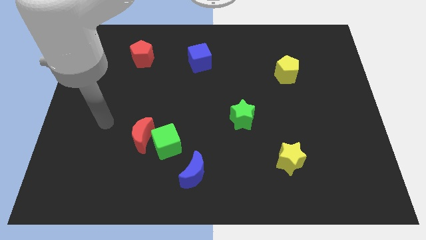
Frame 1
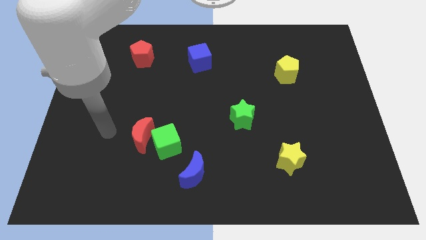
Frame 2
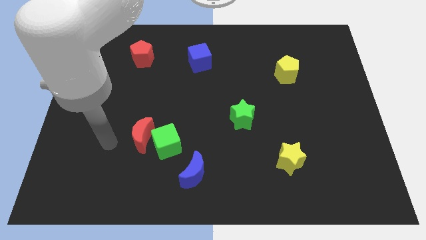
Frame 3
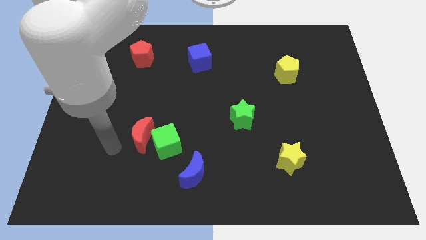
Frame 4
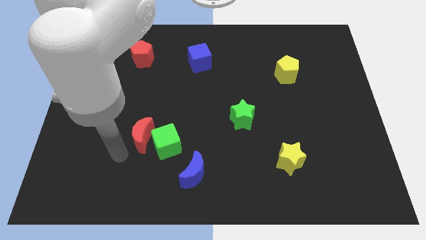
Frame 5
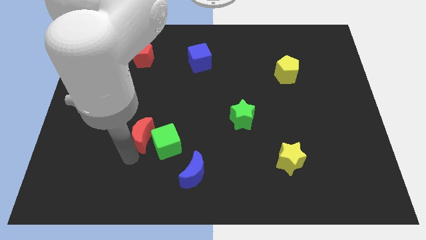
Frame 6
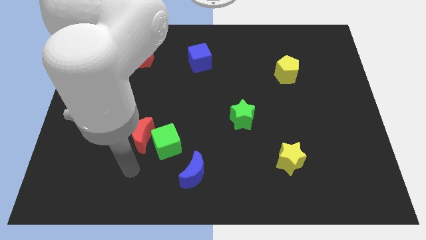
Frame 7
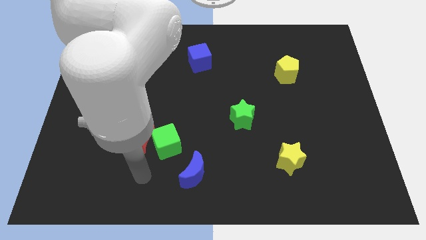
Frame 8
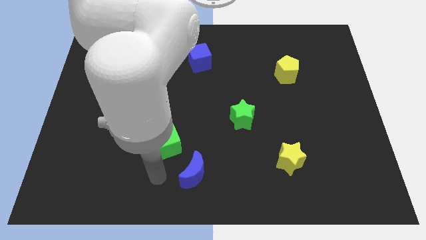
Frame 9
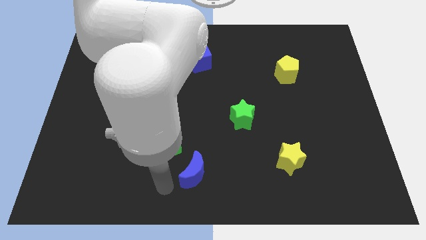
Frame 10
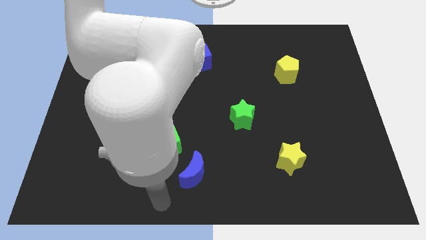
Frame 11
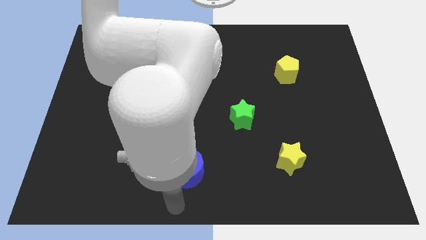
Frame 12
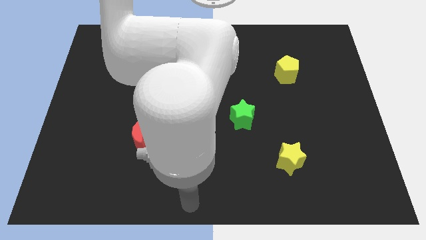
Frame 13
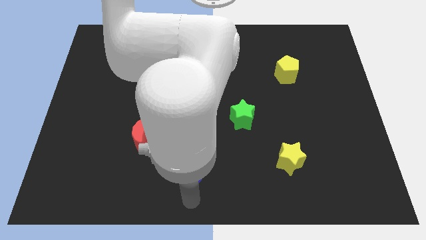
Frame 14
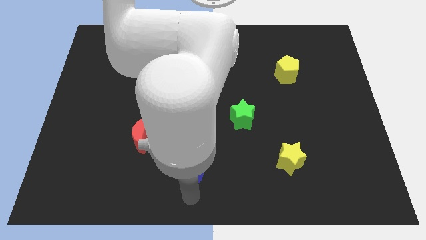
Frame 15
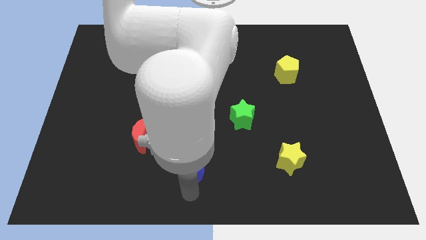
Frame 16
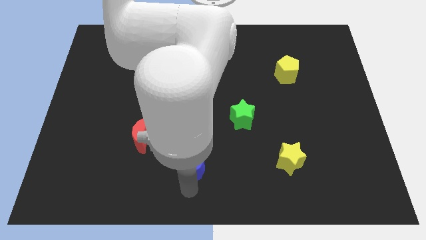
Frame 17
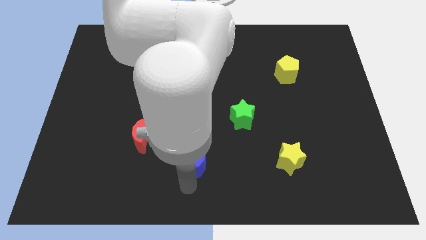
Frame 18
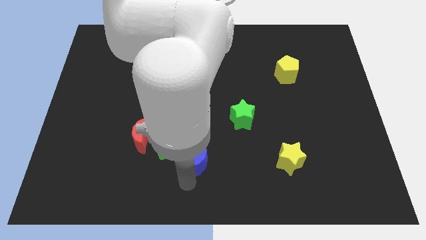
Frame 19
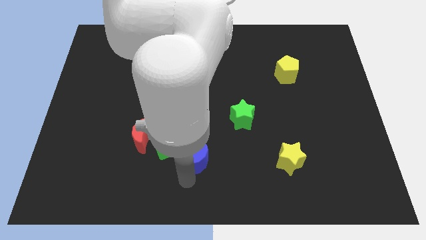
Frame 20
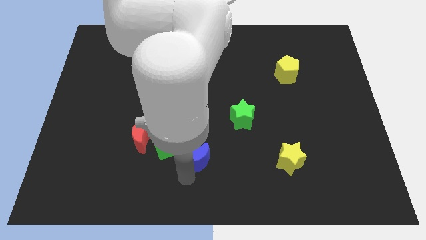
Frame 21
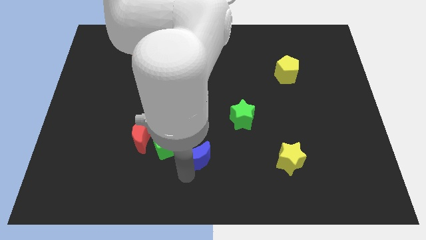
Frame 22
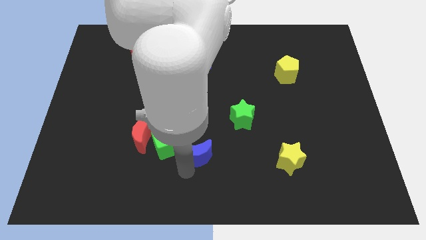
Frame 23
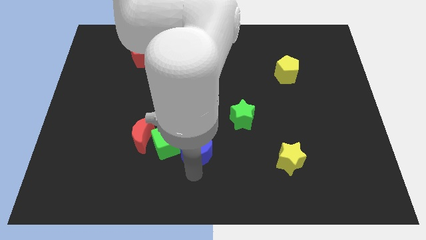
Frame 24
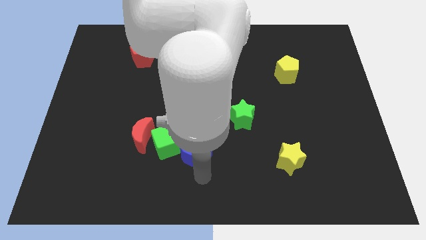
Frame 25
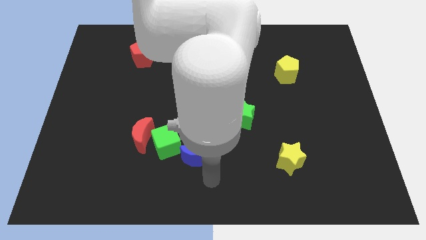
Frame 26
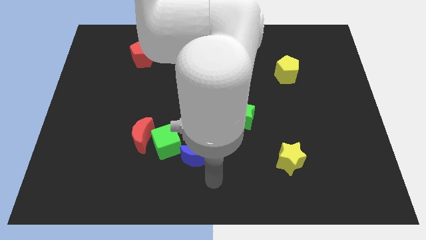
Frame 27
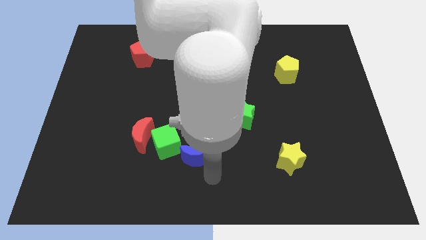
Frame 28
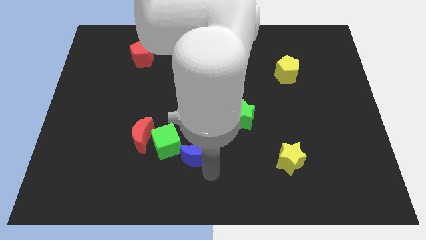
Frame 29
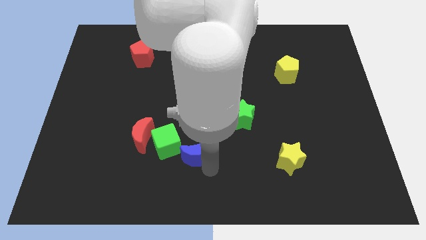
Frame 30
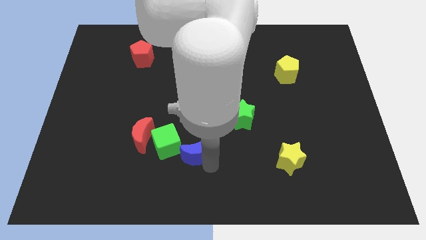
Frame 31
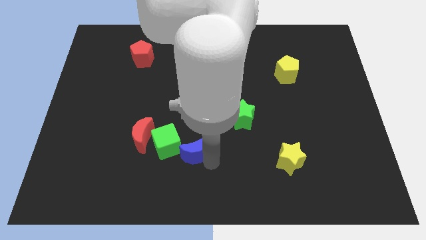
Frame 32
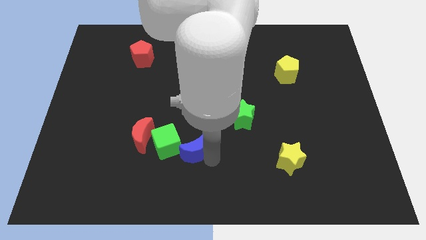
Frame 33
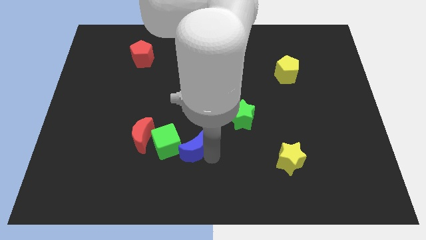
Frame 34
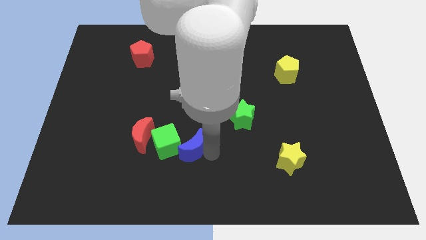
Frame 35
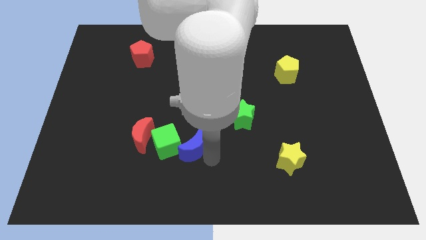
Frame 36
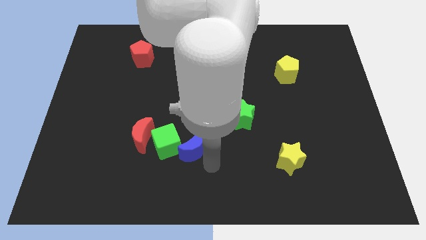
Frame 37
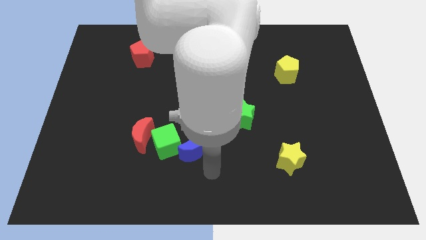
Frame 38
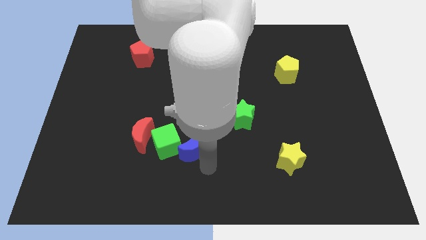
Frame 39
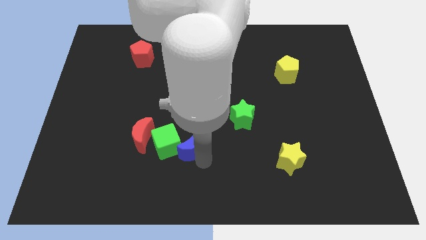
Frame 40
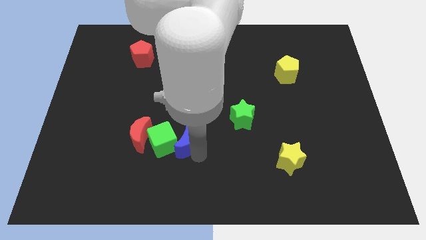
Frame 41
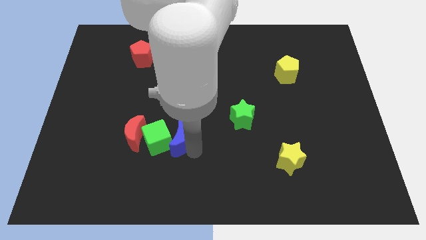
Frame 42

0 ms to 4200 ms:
push the blue moon a little upwards and left

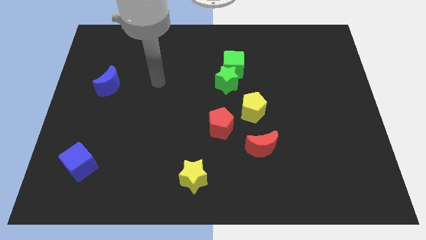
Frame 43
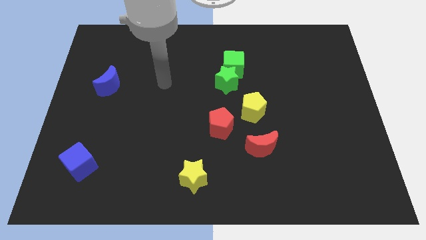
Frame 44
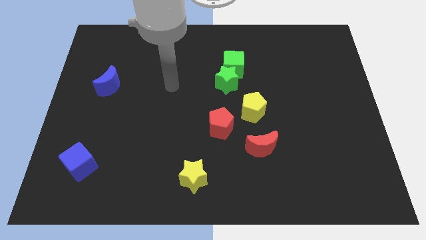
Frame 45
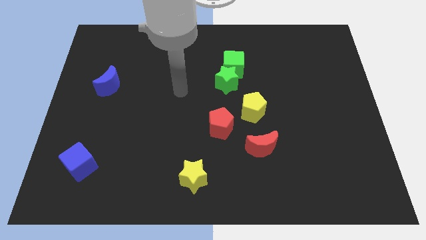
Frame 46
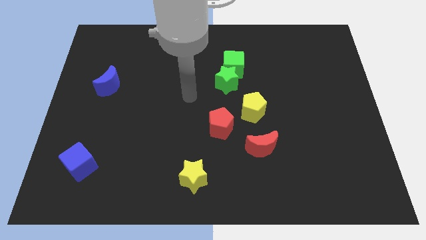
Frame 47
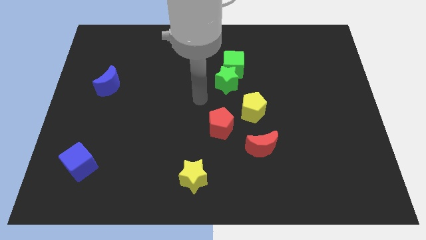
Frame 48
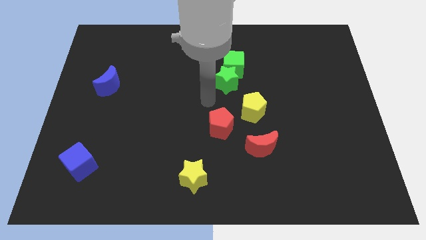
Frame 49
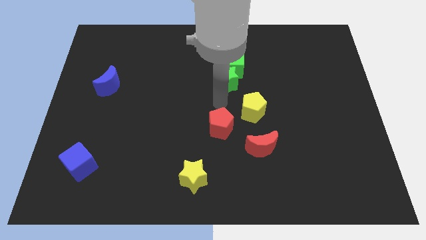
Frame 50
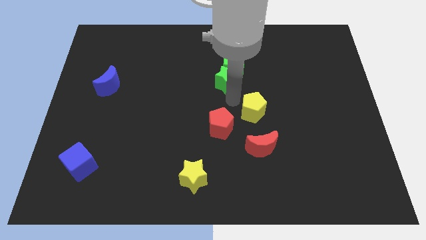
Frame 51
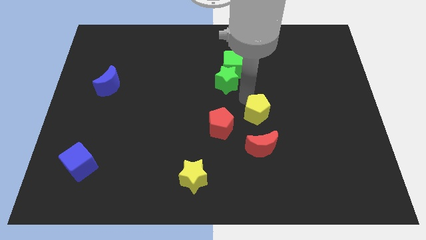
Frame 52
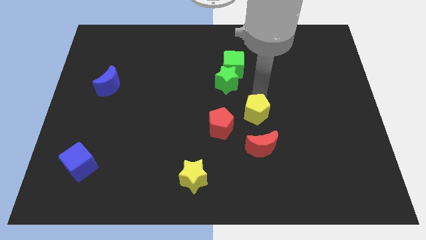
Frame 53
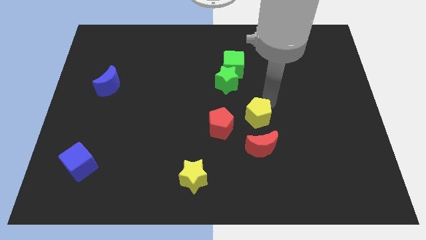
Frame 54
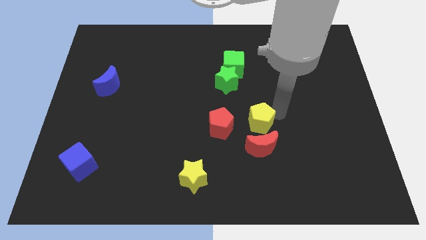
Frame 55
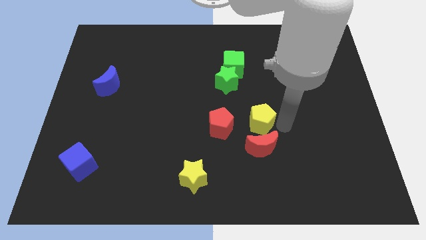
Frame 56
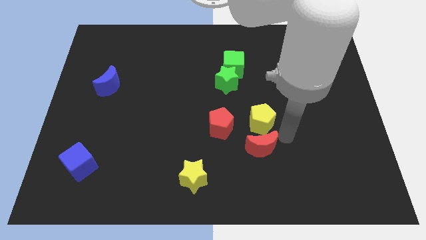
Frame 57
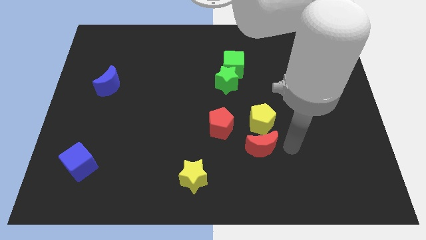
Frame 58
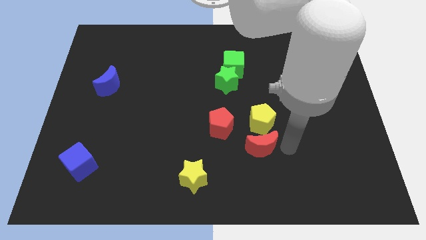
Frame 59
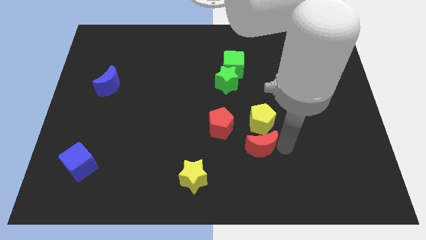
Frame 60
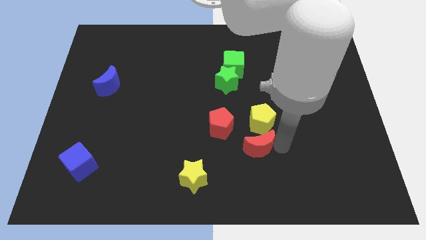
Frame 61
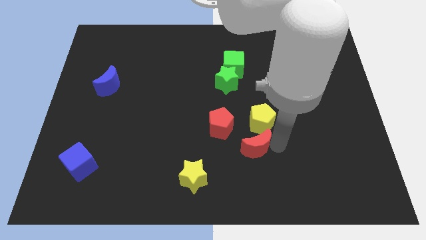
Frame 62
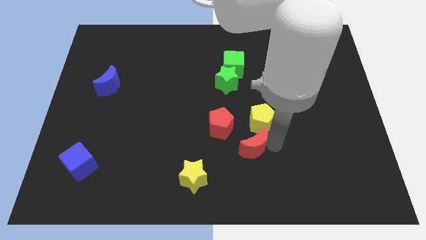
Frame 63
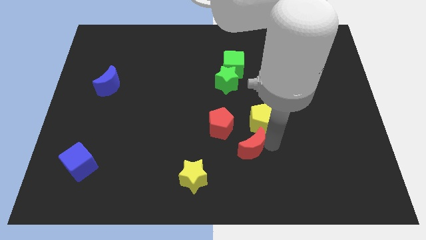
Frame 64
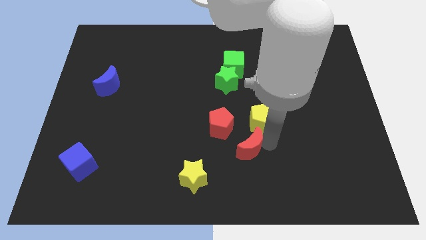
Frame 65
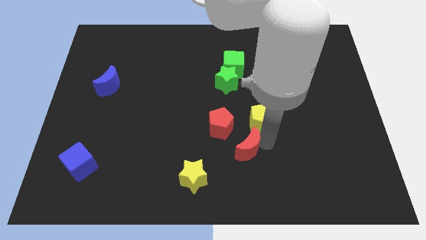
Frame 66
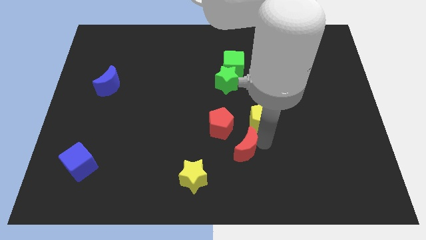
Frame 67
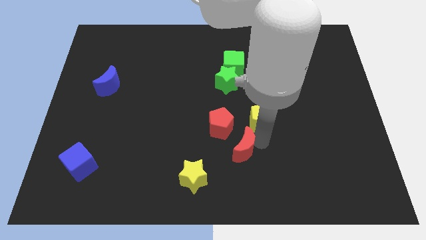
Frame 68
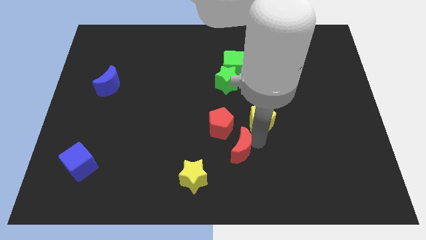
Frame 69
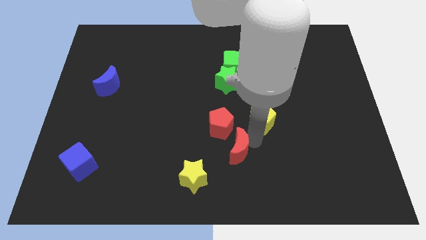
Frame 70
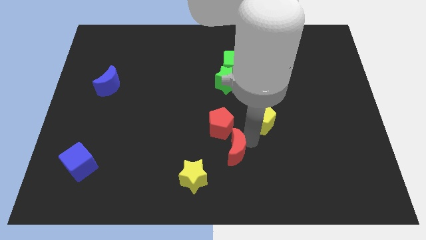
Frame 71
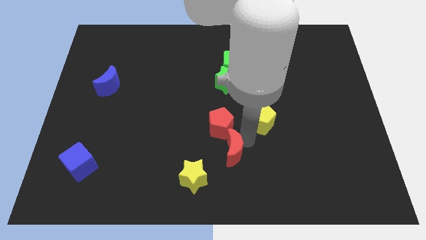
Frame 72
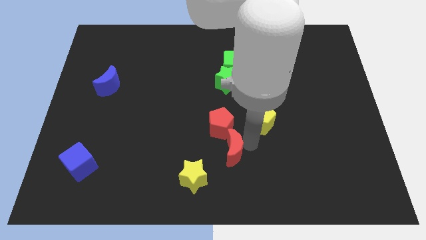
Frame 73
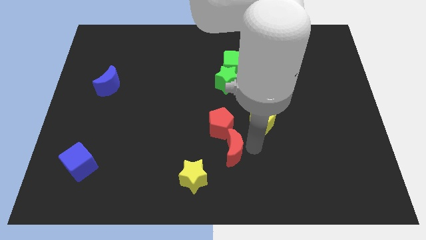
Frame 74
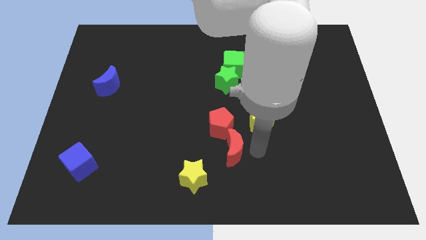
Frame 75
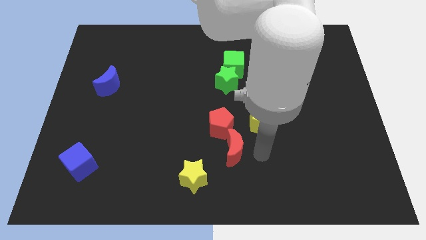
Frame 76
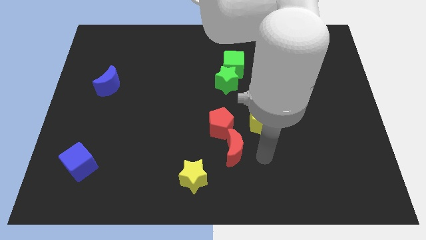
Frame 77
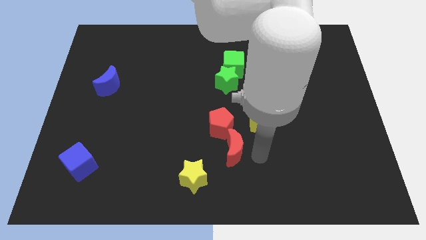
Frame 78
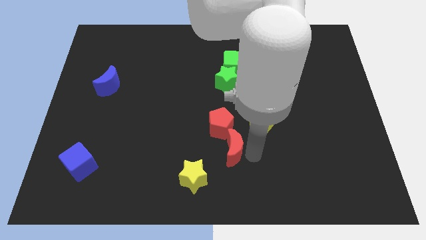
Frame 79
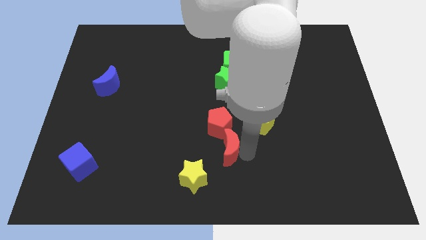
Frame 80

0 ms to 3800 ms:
slightly move the red moon to the left
